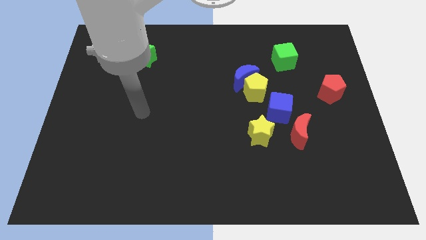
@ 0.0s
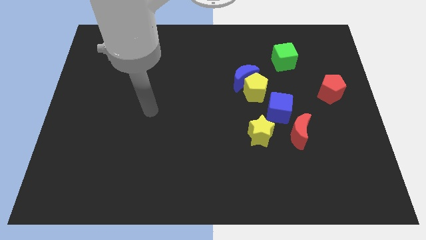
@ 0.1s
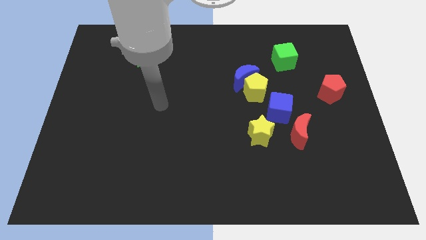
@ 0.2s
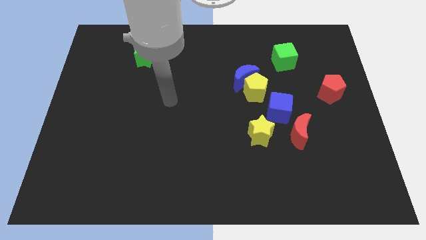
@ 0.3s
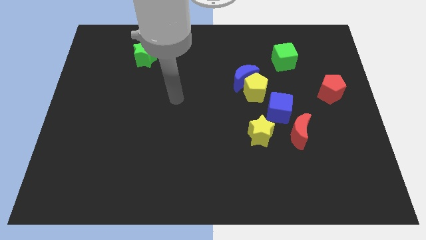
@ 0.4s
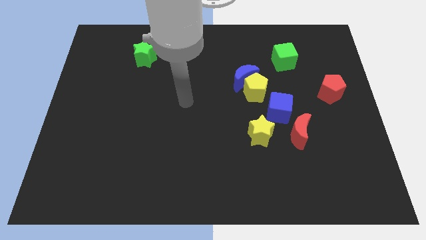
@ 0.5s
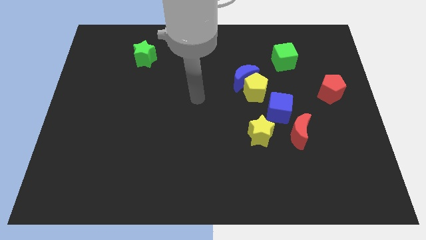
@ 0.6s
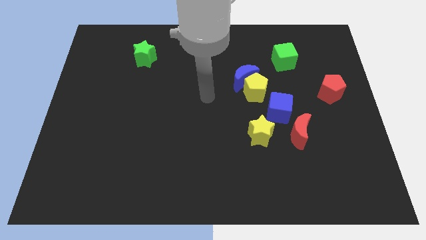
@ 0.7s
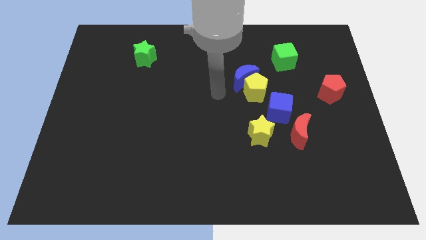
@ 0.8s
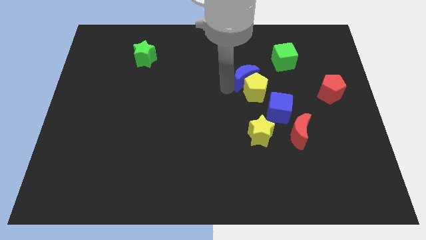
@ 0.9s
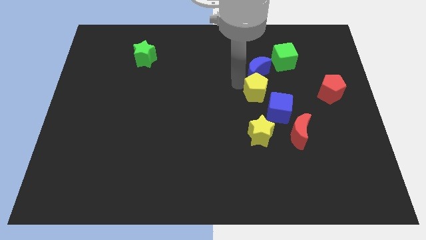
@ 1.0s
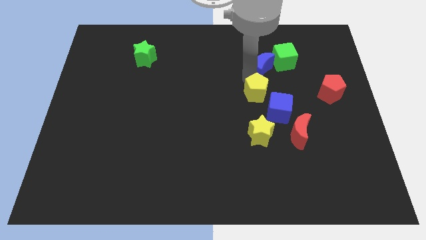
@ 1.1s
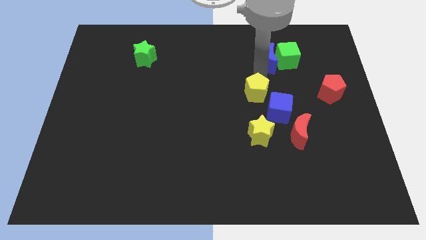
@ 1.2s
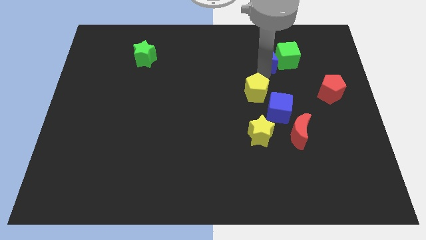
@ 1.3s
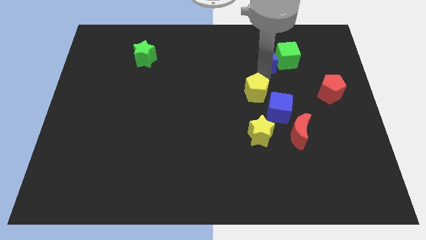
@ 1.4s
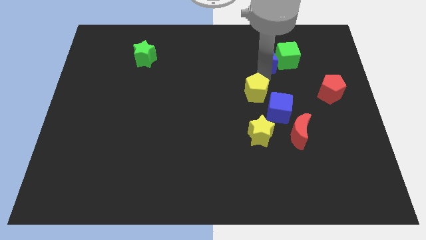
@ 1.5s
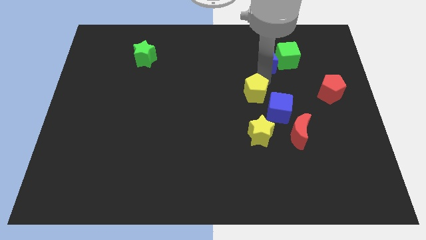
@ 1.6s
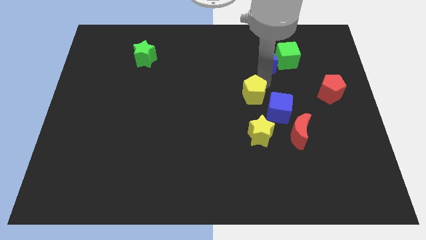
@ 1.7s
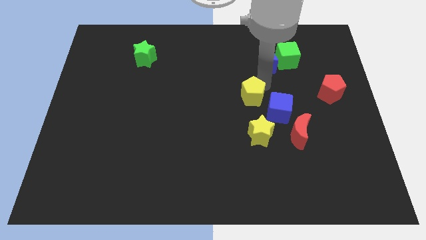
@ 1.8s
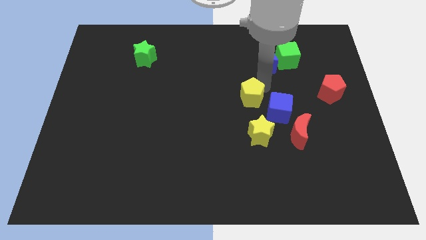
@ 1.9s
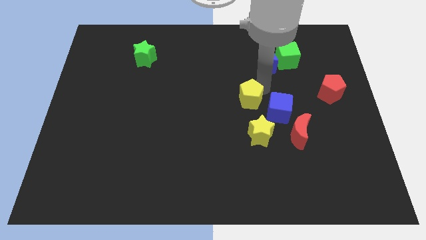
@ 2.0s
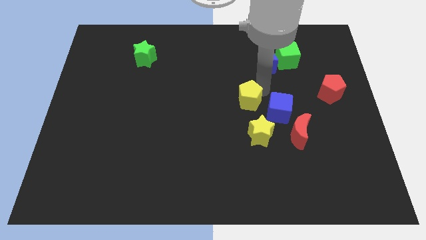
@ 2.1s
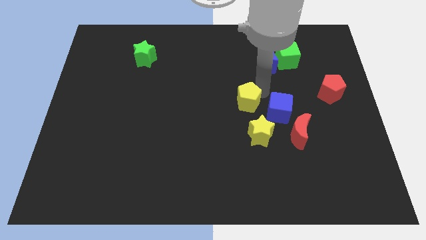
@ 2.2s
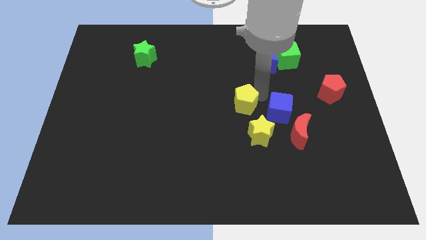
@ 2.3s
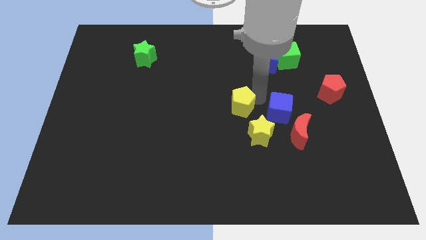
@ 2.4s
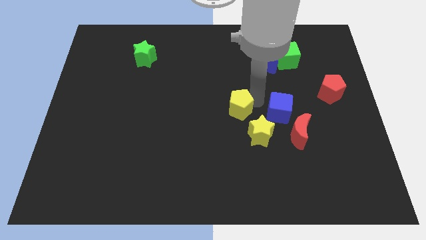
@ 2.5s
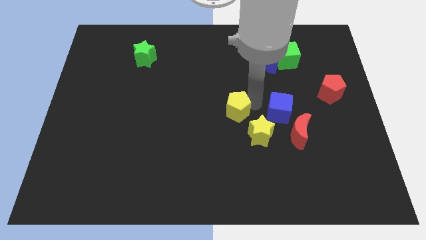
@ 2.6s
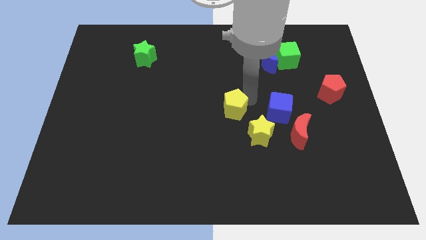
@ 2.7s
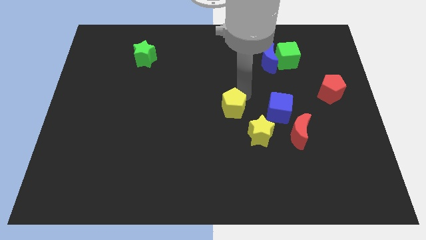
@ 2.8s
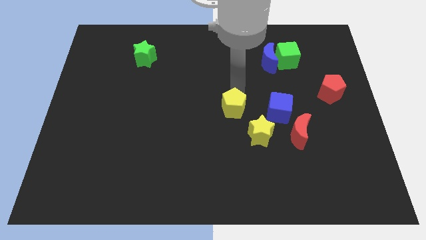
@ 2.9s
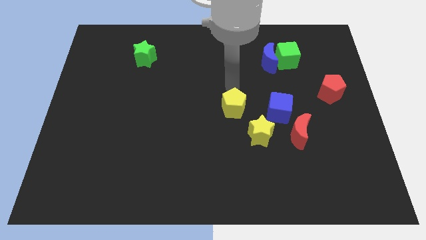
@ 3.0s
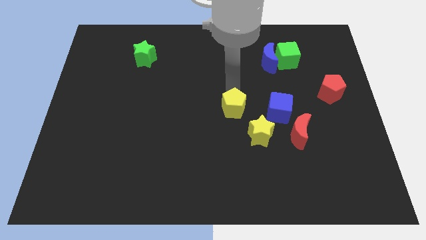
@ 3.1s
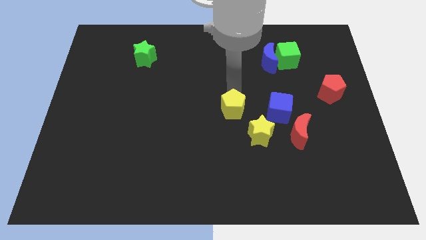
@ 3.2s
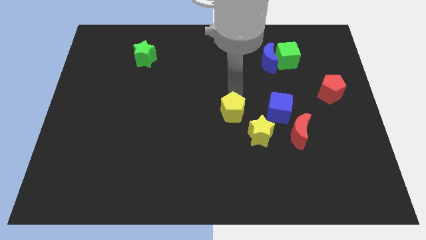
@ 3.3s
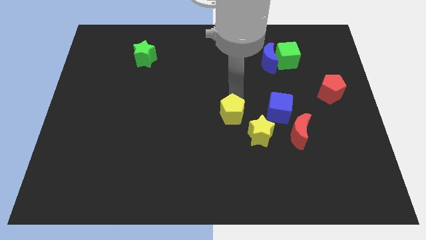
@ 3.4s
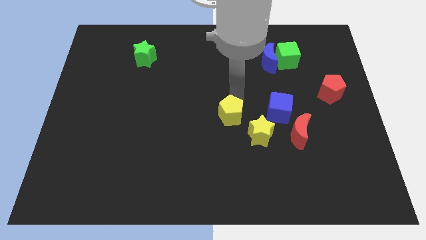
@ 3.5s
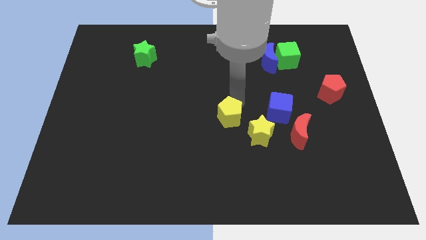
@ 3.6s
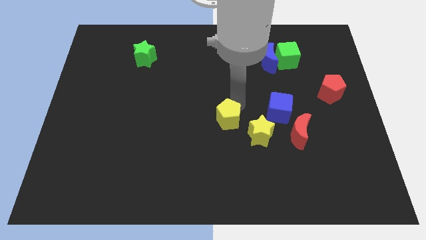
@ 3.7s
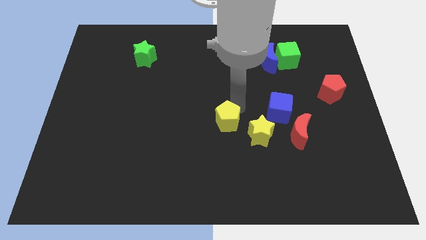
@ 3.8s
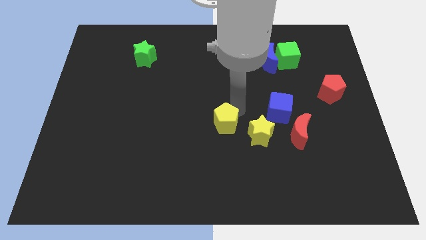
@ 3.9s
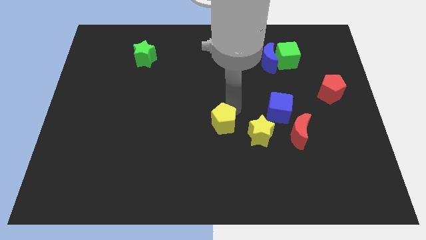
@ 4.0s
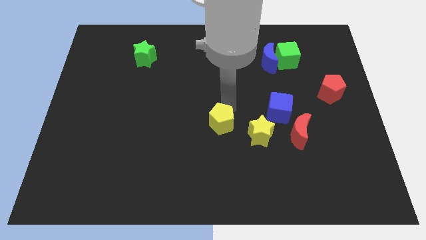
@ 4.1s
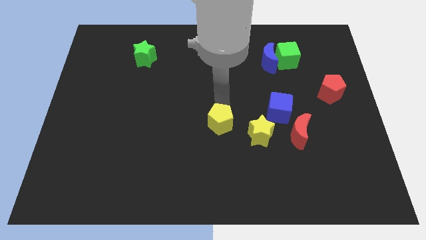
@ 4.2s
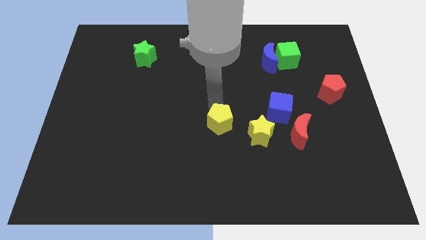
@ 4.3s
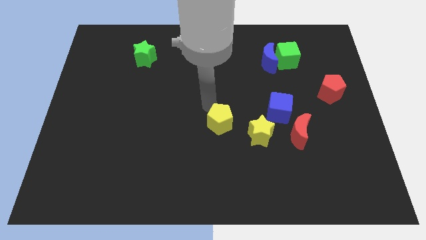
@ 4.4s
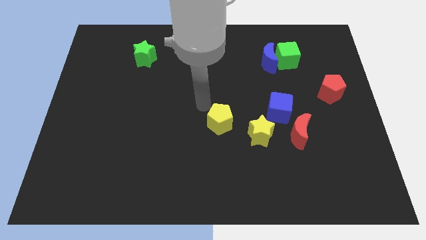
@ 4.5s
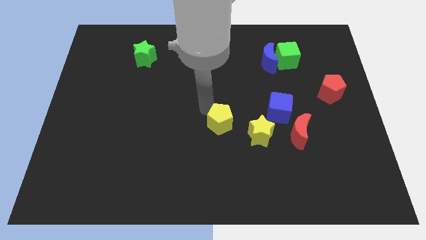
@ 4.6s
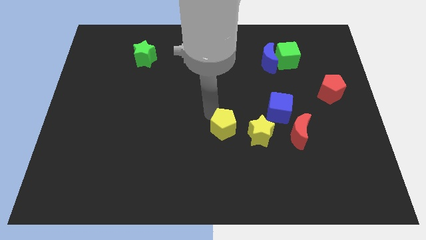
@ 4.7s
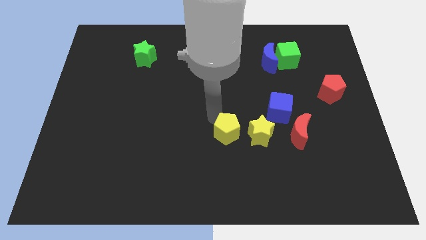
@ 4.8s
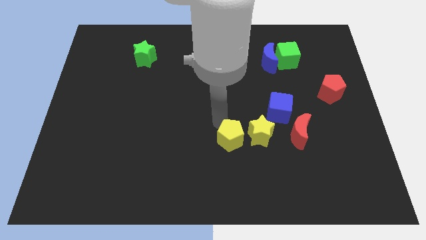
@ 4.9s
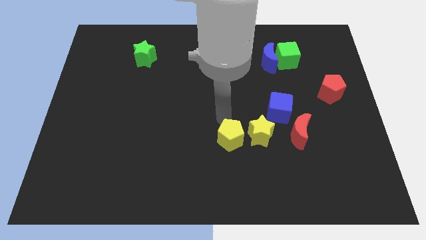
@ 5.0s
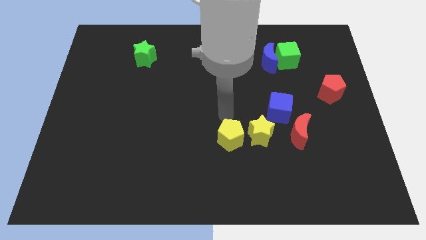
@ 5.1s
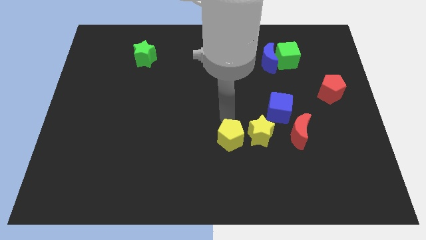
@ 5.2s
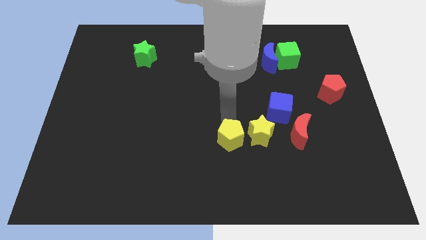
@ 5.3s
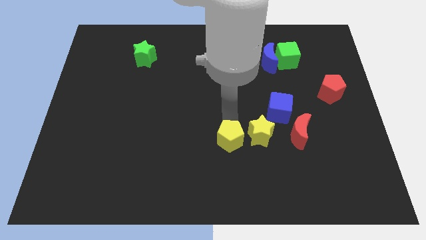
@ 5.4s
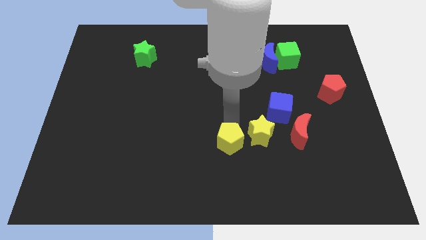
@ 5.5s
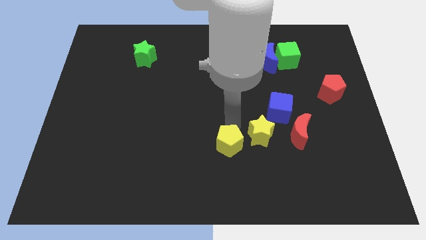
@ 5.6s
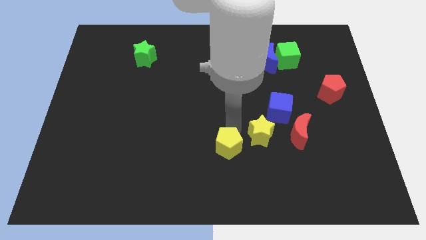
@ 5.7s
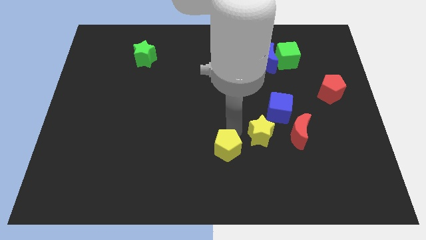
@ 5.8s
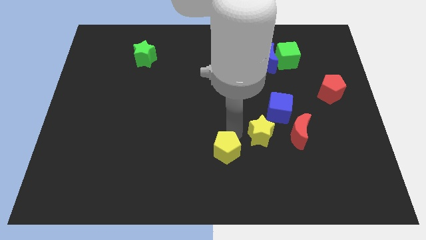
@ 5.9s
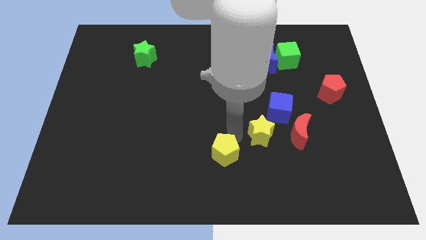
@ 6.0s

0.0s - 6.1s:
slide the yellow pentagon to the bottom side

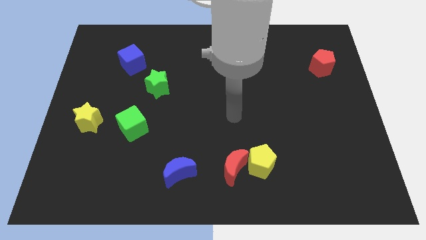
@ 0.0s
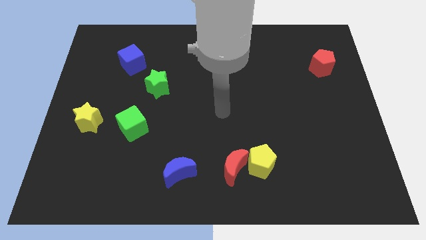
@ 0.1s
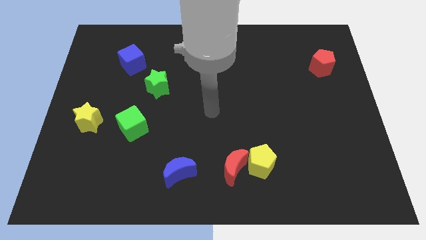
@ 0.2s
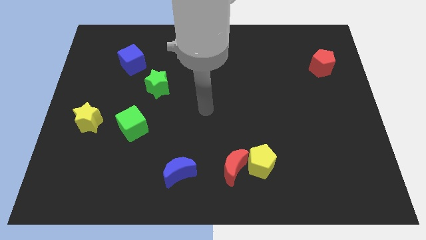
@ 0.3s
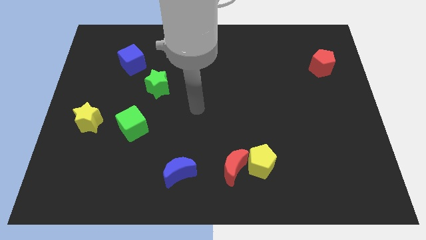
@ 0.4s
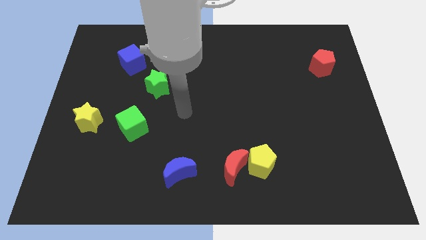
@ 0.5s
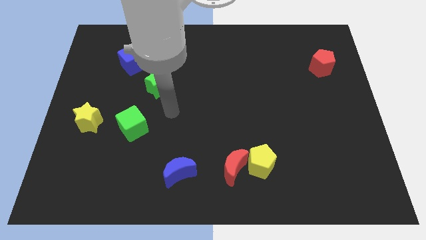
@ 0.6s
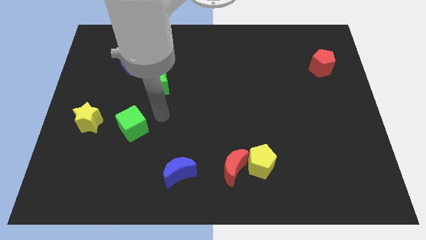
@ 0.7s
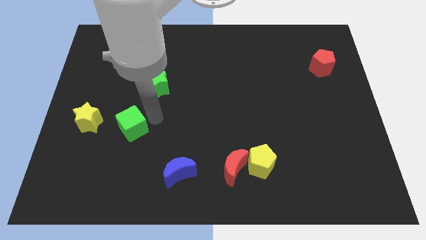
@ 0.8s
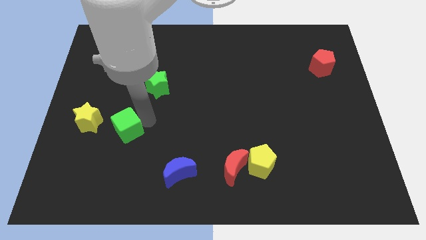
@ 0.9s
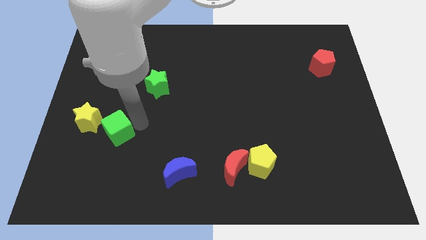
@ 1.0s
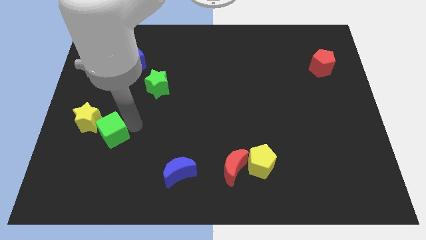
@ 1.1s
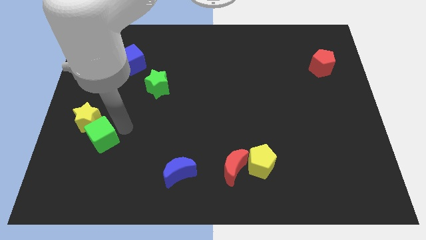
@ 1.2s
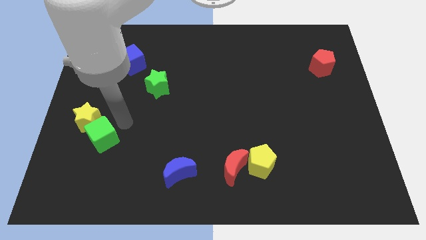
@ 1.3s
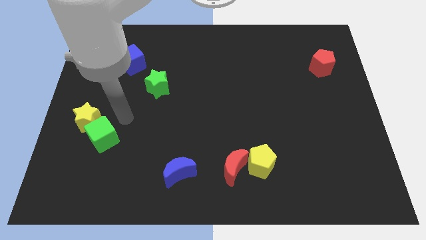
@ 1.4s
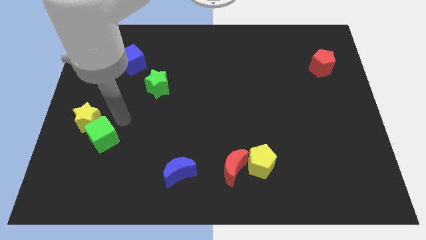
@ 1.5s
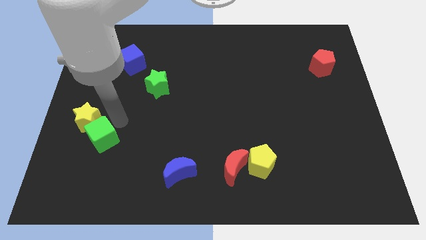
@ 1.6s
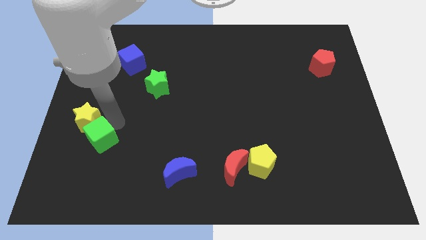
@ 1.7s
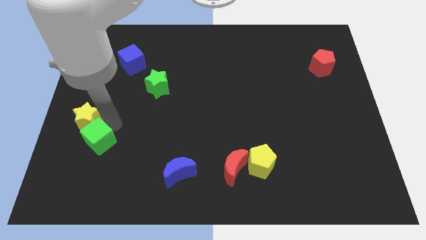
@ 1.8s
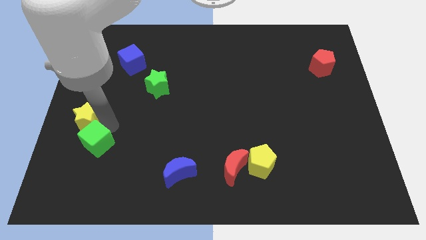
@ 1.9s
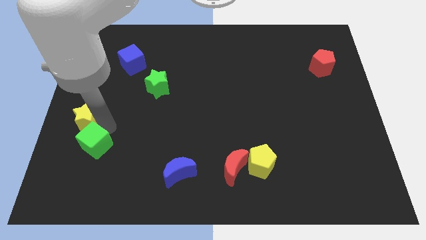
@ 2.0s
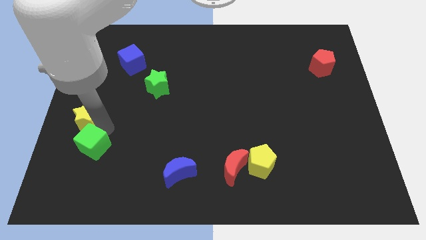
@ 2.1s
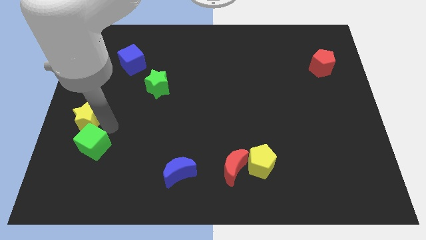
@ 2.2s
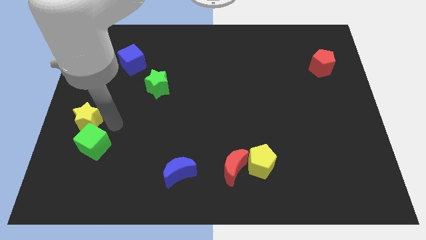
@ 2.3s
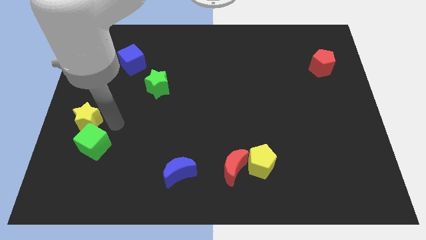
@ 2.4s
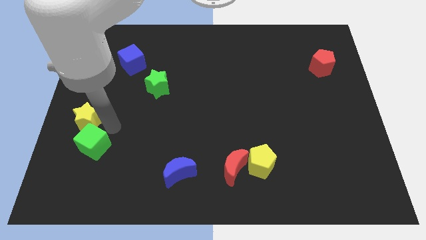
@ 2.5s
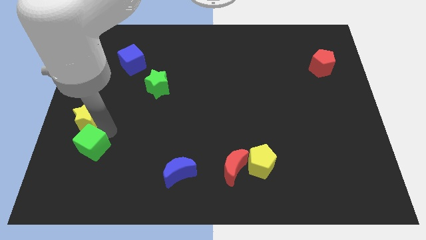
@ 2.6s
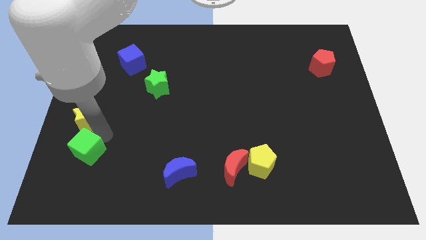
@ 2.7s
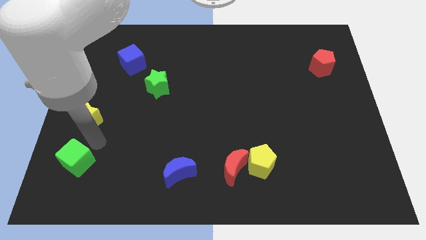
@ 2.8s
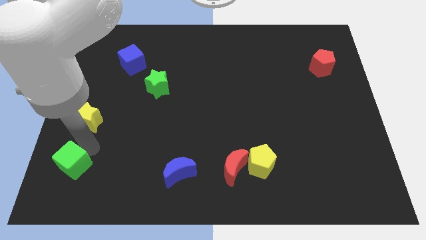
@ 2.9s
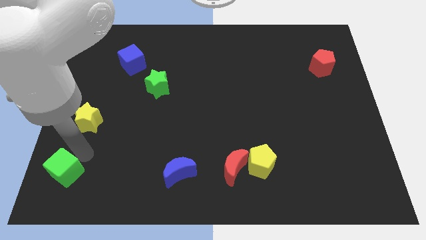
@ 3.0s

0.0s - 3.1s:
move the green cube to the bottom left corner
